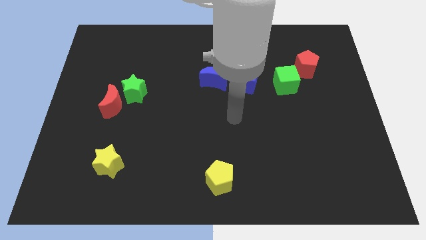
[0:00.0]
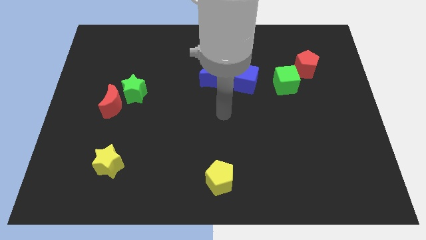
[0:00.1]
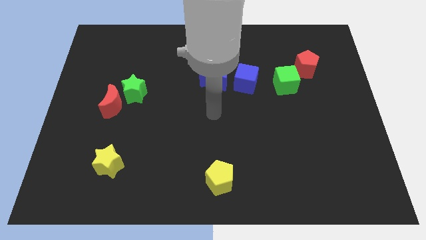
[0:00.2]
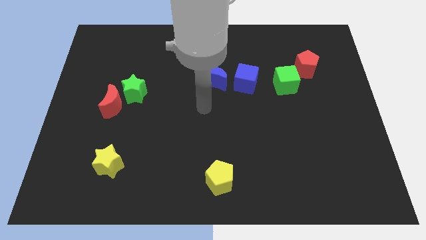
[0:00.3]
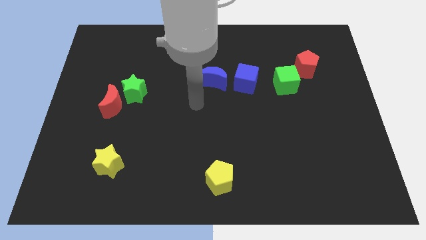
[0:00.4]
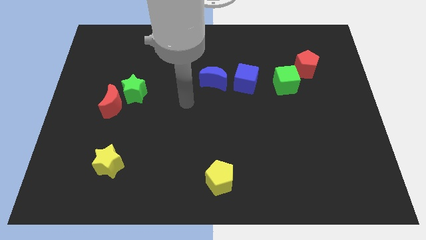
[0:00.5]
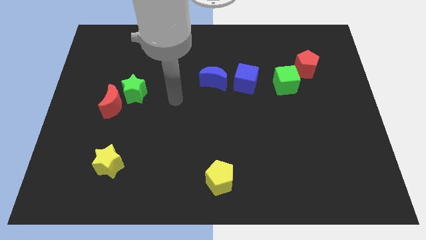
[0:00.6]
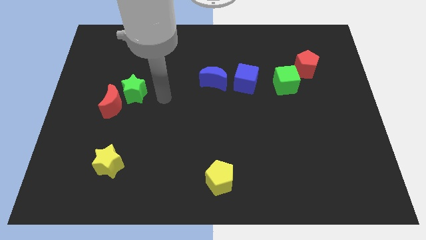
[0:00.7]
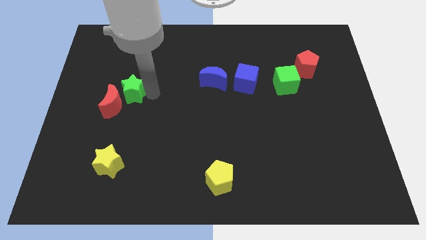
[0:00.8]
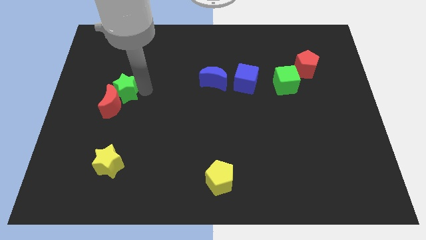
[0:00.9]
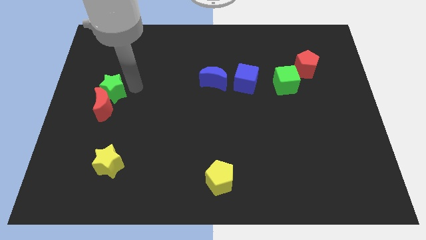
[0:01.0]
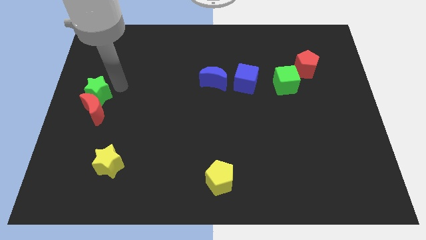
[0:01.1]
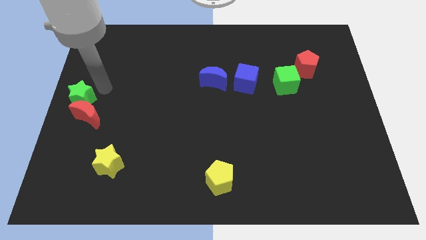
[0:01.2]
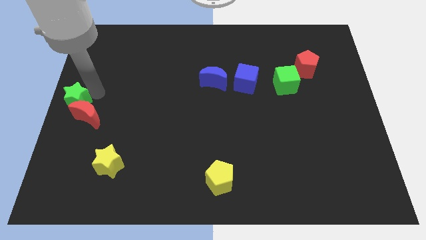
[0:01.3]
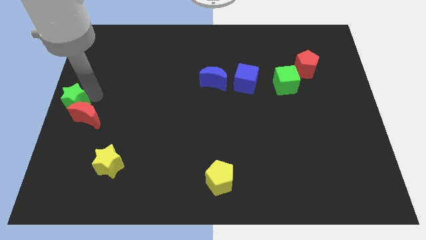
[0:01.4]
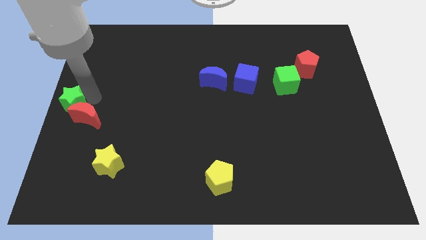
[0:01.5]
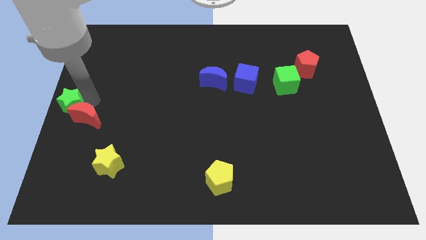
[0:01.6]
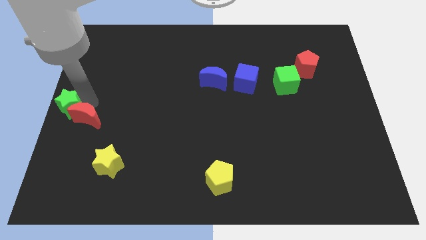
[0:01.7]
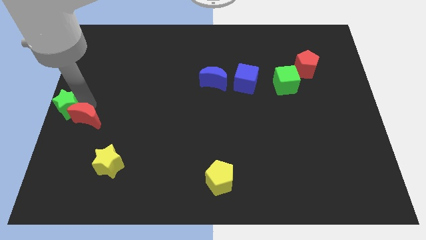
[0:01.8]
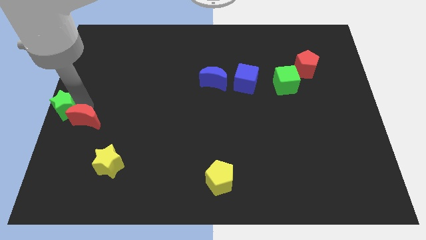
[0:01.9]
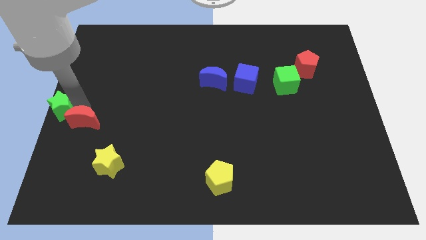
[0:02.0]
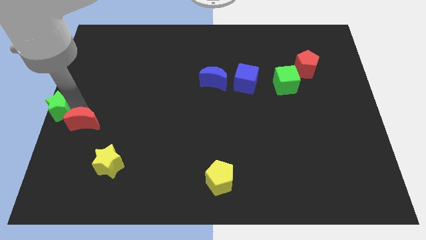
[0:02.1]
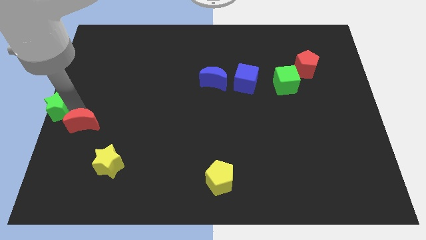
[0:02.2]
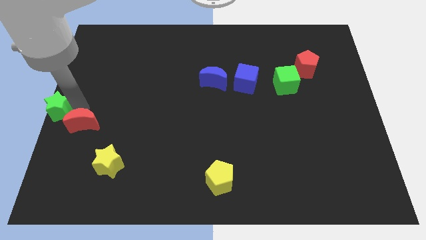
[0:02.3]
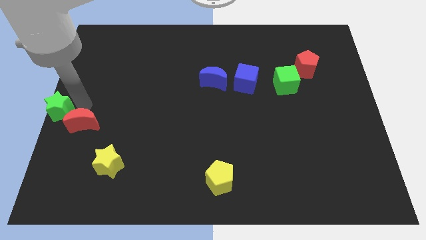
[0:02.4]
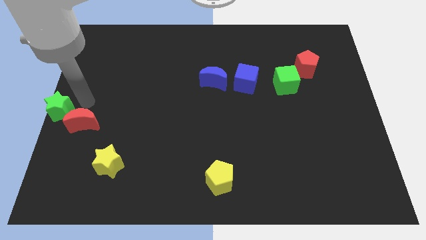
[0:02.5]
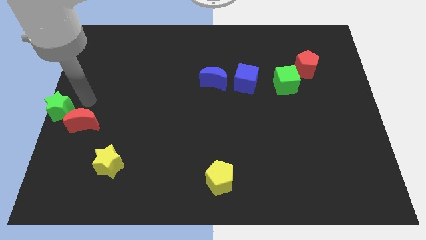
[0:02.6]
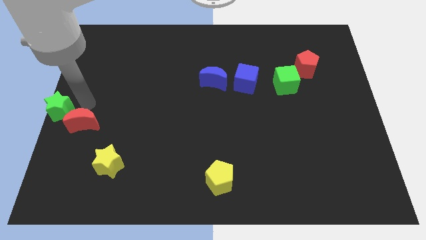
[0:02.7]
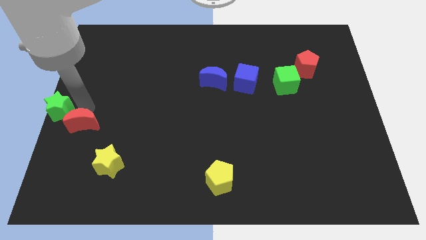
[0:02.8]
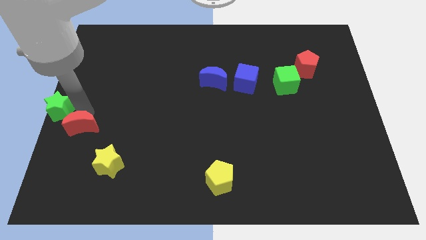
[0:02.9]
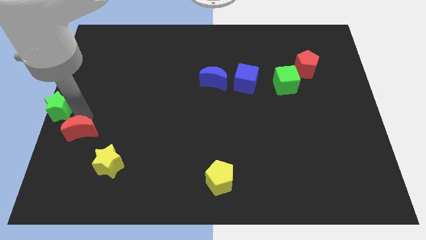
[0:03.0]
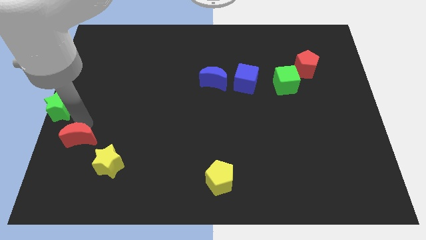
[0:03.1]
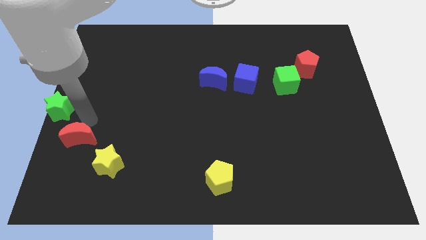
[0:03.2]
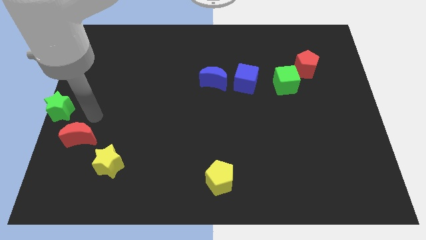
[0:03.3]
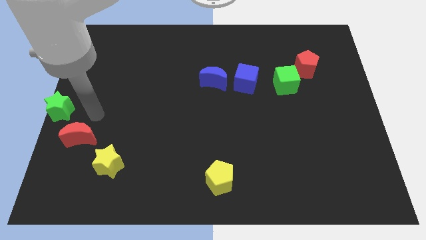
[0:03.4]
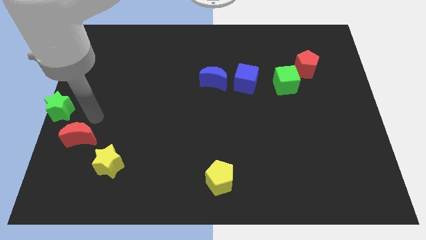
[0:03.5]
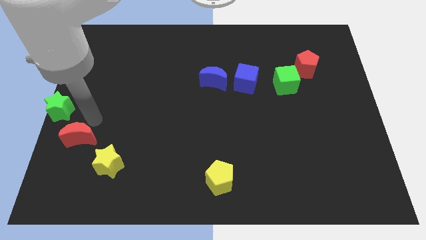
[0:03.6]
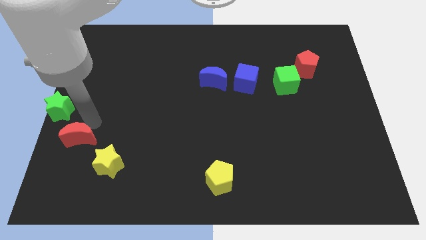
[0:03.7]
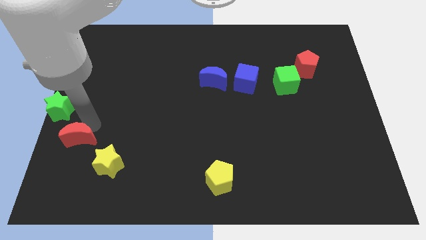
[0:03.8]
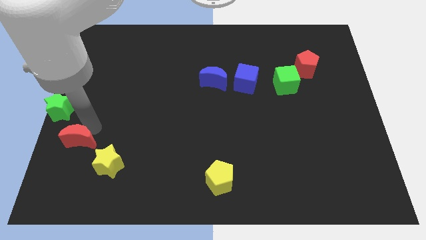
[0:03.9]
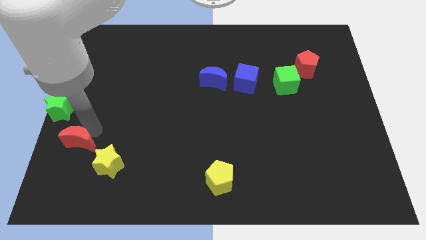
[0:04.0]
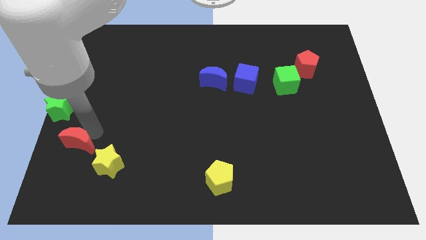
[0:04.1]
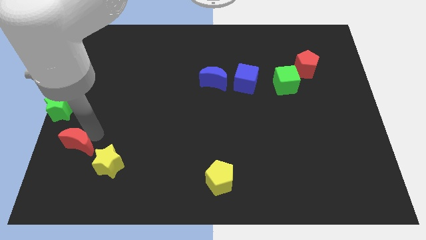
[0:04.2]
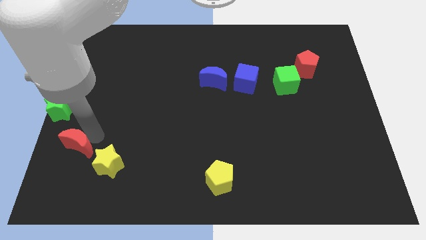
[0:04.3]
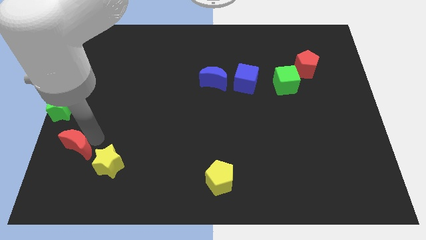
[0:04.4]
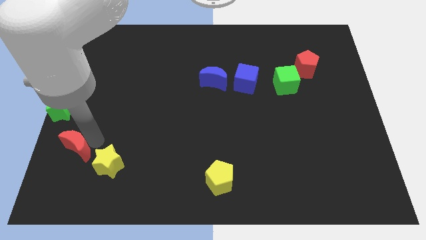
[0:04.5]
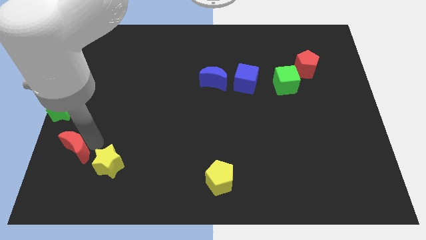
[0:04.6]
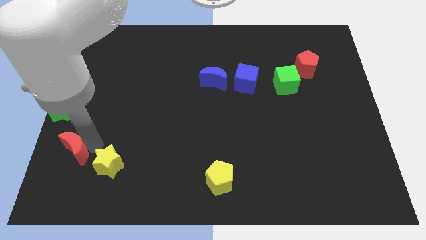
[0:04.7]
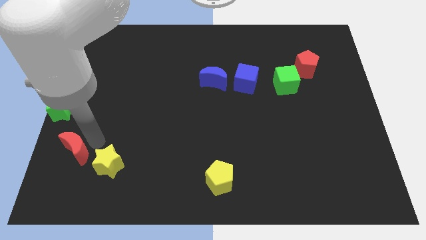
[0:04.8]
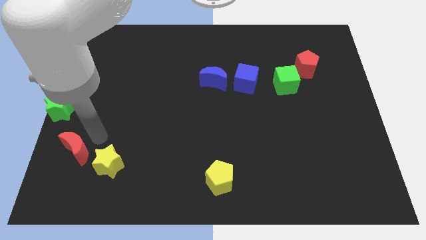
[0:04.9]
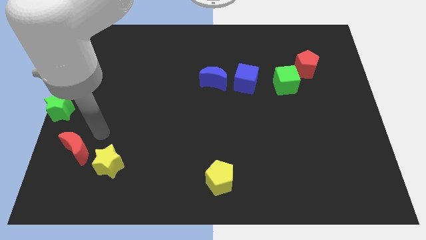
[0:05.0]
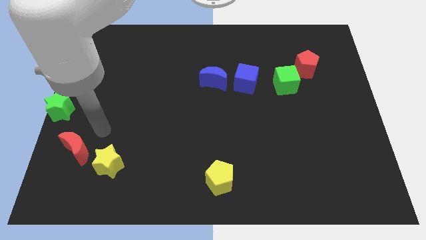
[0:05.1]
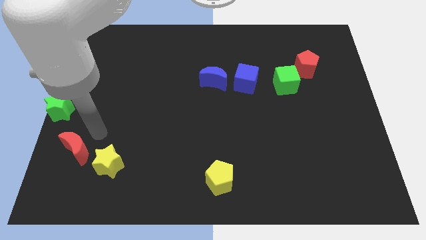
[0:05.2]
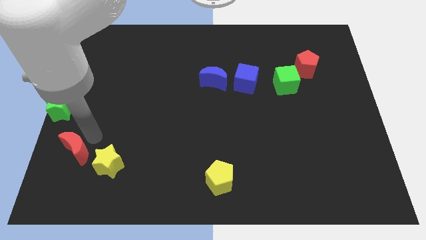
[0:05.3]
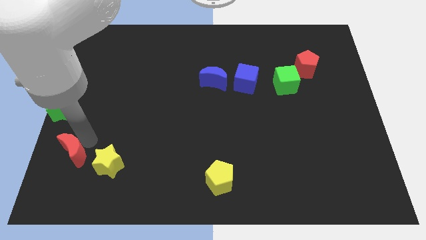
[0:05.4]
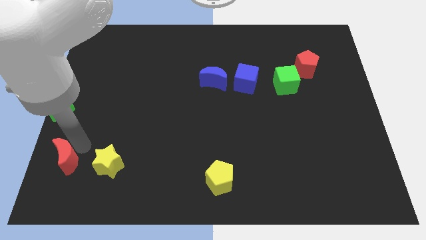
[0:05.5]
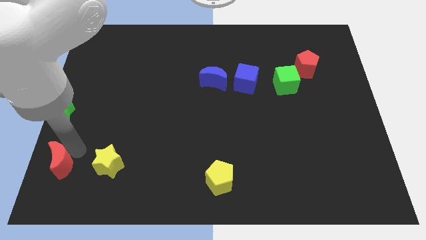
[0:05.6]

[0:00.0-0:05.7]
put the red moon to the lower left corner

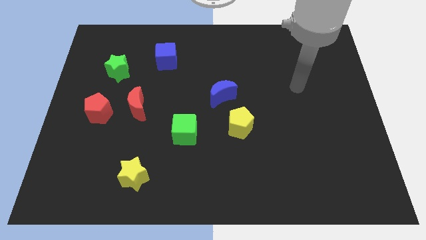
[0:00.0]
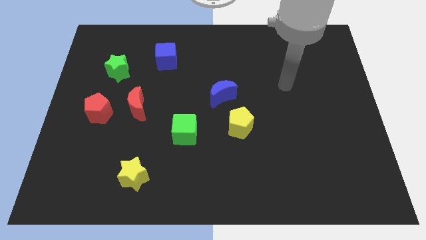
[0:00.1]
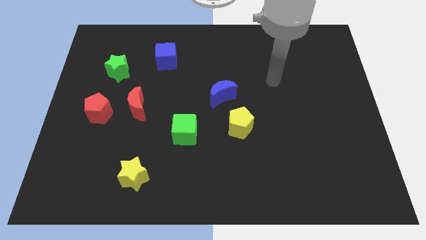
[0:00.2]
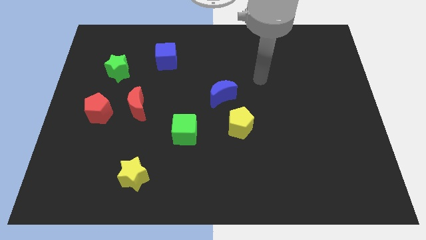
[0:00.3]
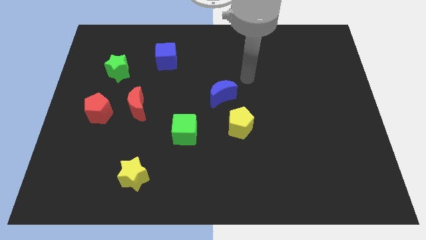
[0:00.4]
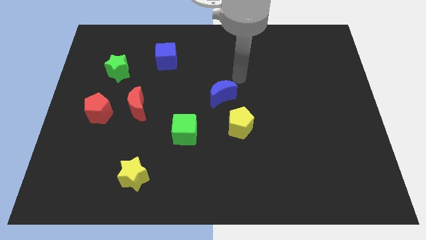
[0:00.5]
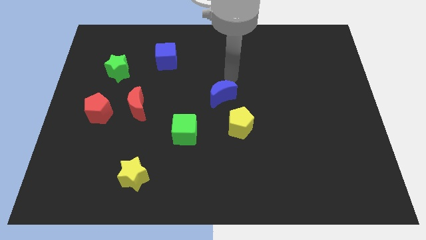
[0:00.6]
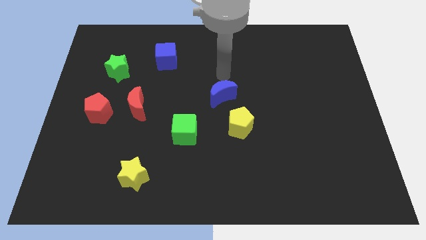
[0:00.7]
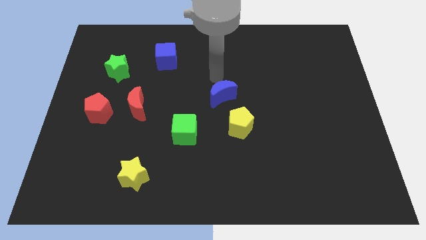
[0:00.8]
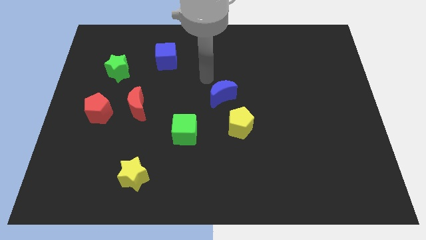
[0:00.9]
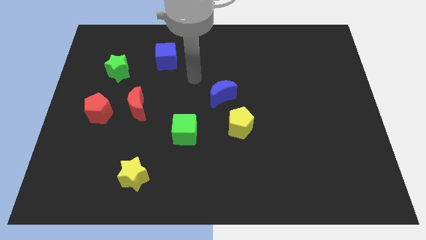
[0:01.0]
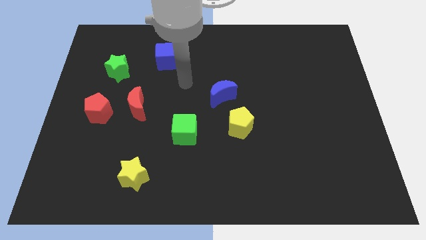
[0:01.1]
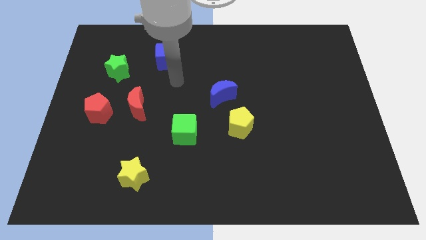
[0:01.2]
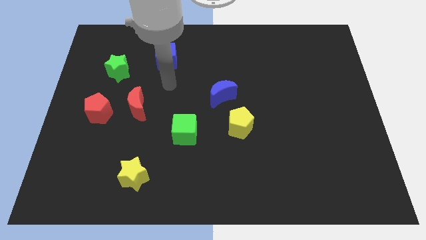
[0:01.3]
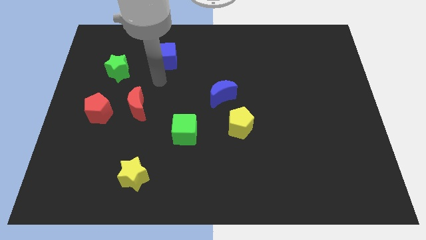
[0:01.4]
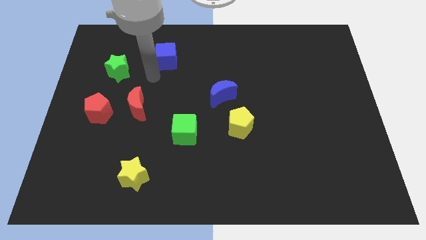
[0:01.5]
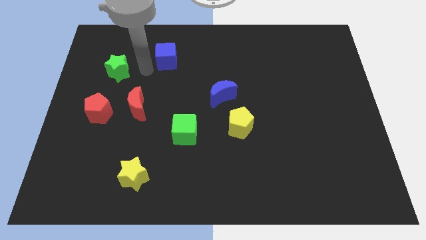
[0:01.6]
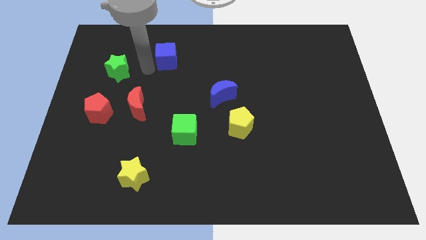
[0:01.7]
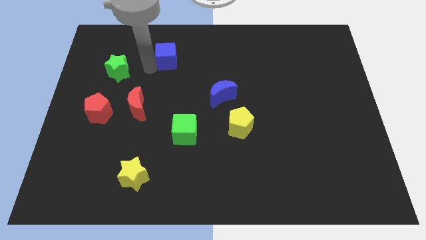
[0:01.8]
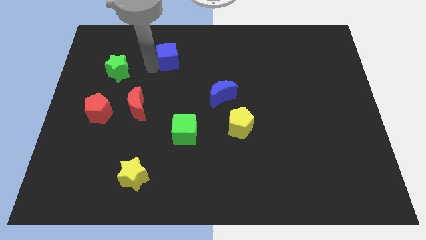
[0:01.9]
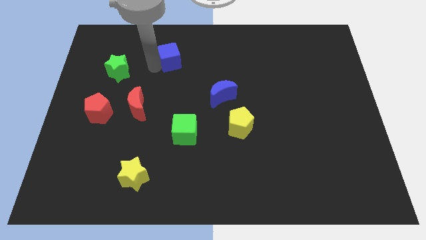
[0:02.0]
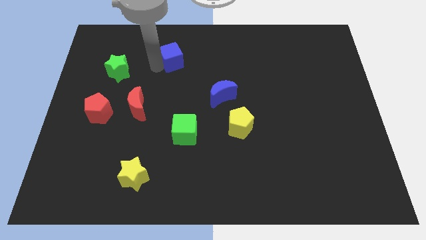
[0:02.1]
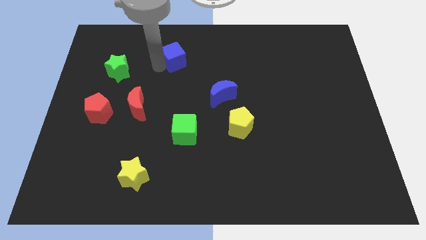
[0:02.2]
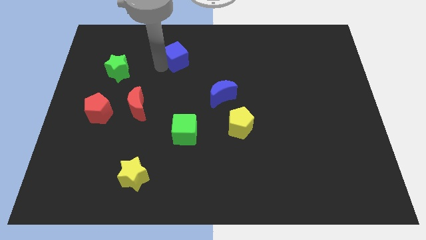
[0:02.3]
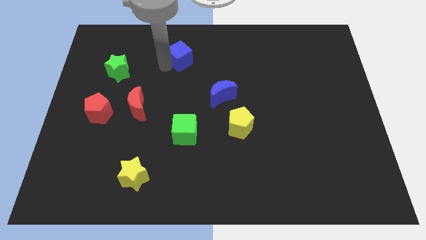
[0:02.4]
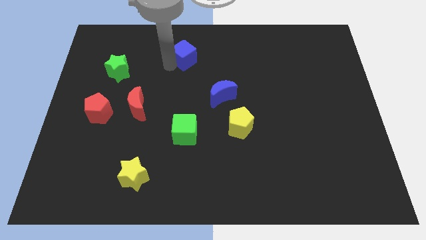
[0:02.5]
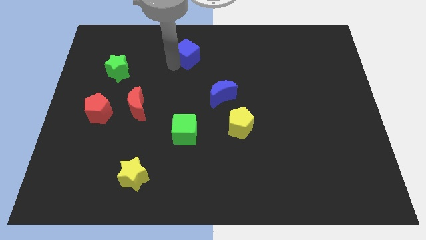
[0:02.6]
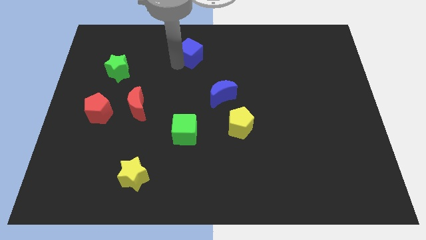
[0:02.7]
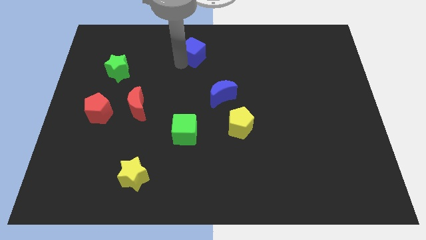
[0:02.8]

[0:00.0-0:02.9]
push the blue cube to the top
